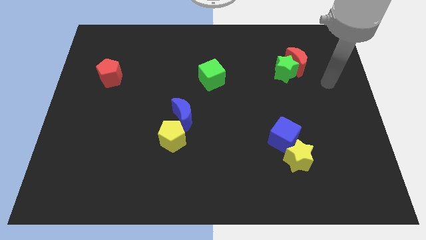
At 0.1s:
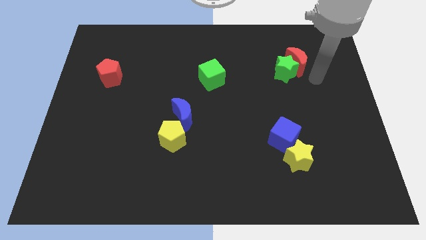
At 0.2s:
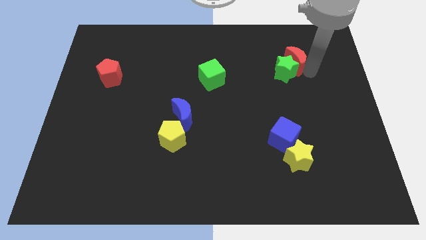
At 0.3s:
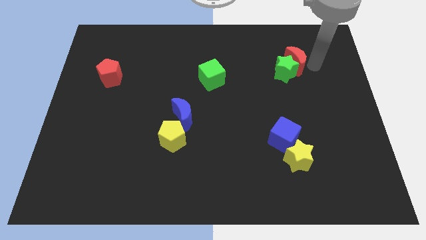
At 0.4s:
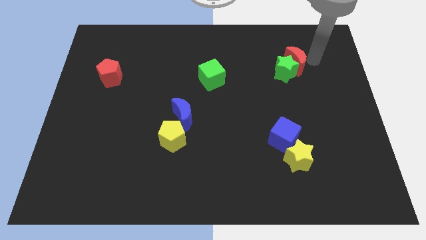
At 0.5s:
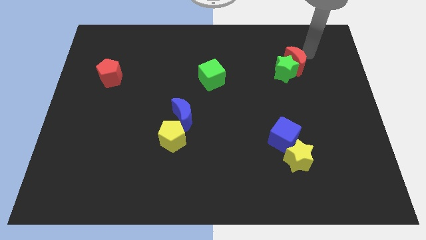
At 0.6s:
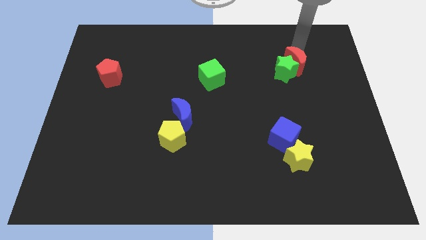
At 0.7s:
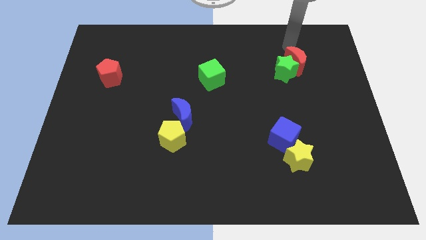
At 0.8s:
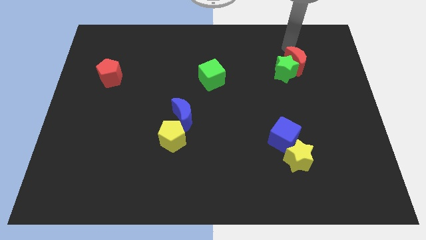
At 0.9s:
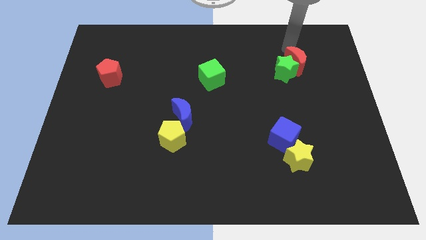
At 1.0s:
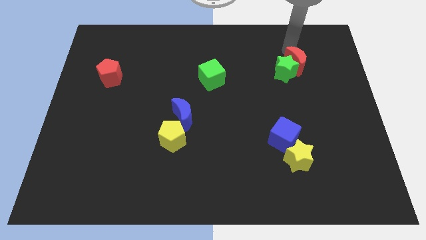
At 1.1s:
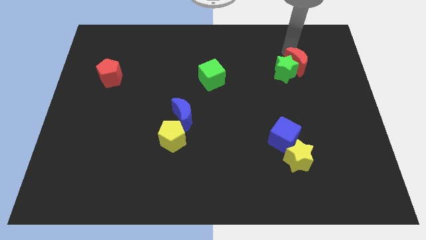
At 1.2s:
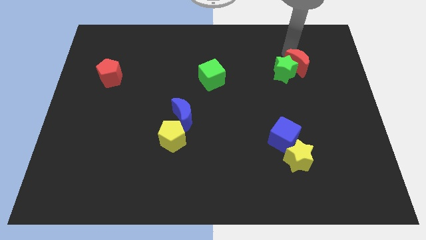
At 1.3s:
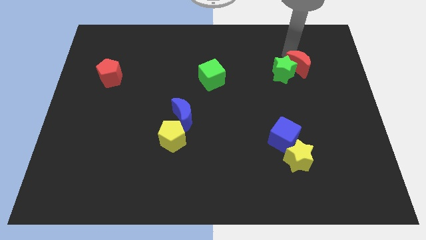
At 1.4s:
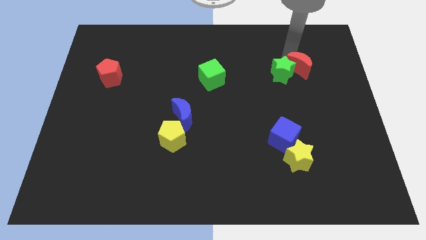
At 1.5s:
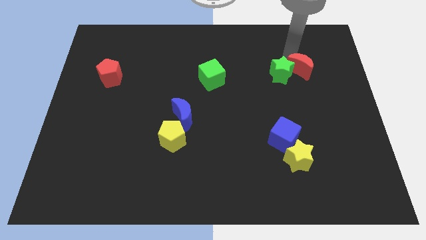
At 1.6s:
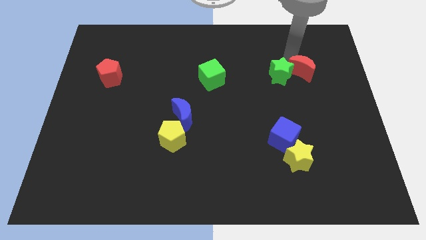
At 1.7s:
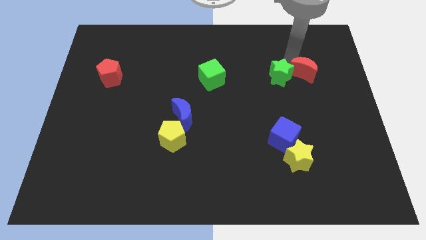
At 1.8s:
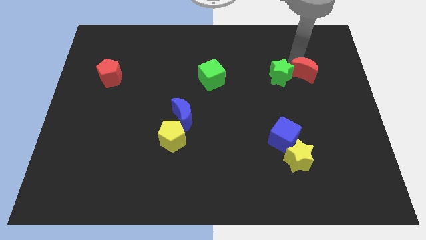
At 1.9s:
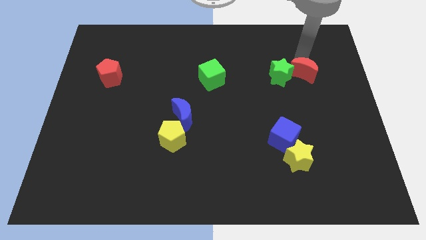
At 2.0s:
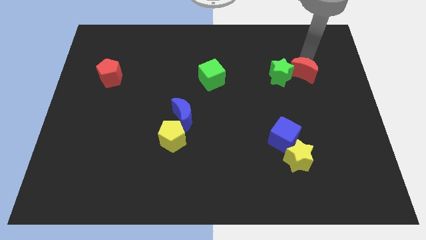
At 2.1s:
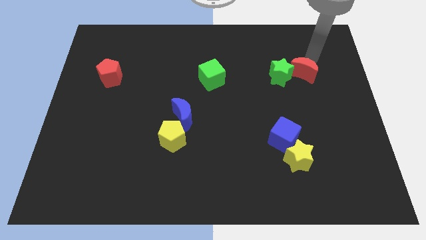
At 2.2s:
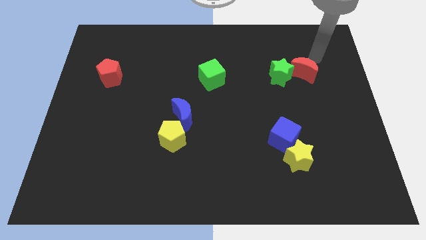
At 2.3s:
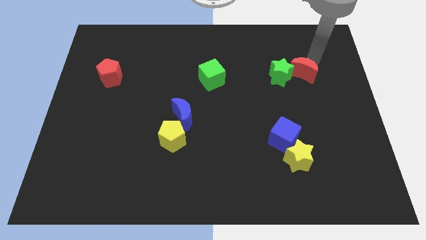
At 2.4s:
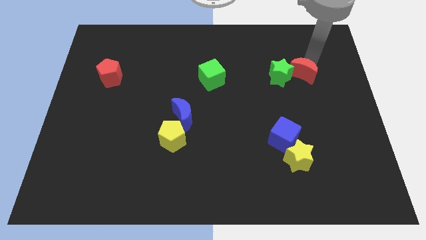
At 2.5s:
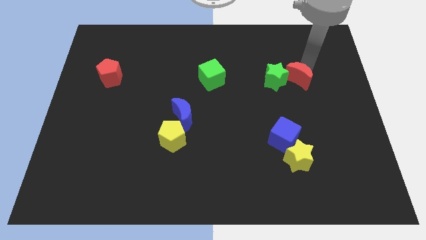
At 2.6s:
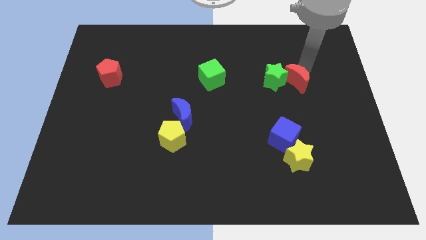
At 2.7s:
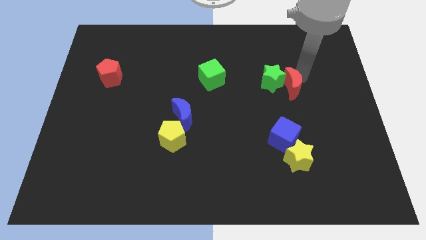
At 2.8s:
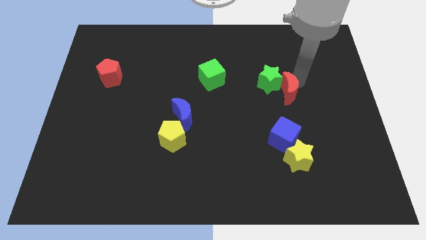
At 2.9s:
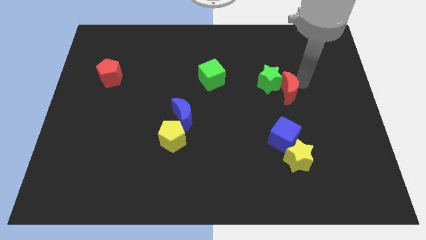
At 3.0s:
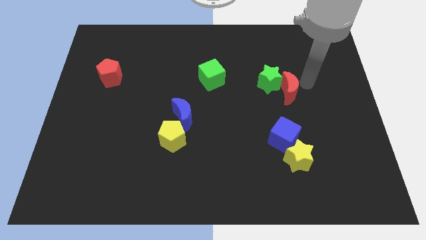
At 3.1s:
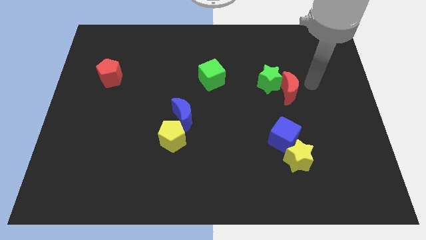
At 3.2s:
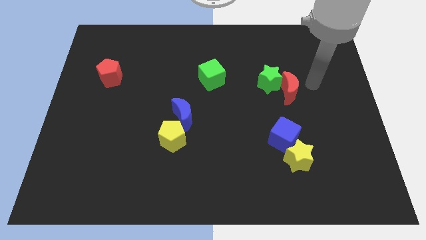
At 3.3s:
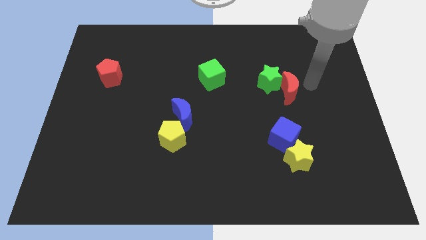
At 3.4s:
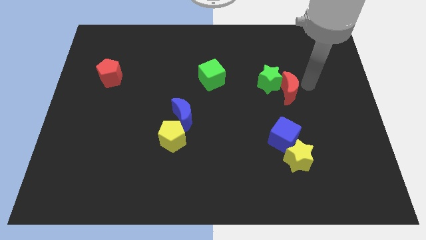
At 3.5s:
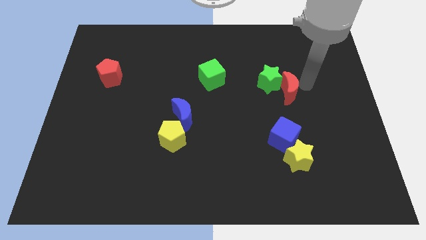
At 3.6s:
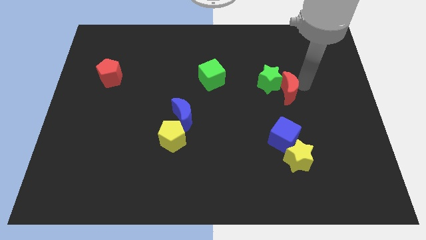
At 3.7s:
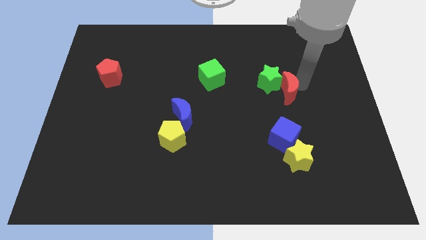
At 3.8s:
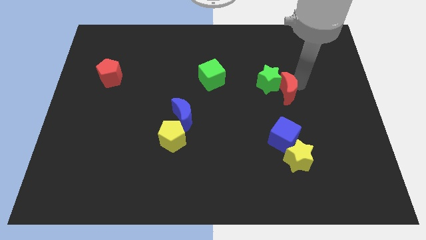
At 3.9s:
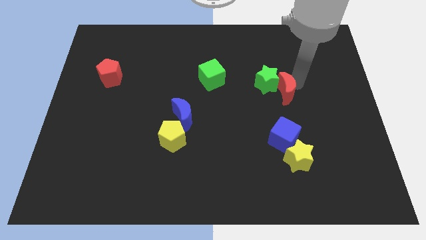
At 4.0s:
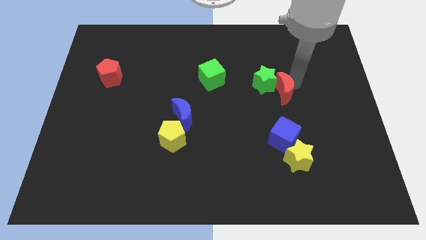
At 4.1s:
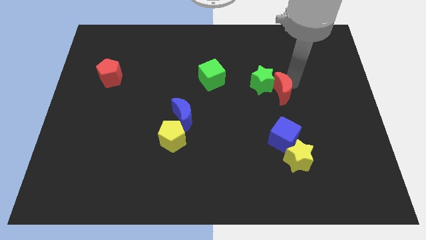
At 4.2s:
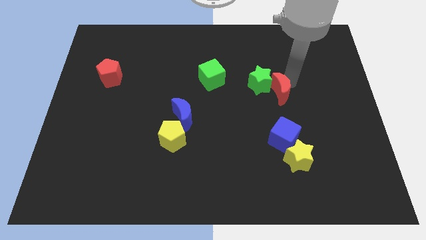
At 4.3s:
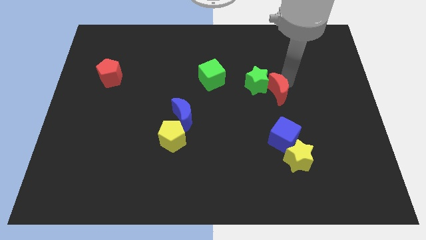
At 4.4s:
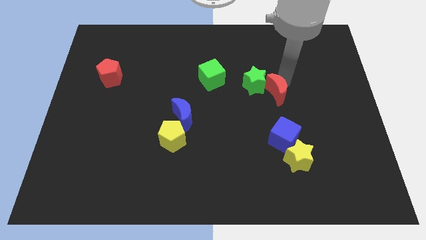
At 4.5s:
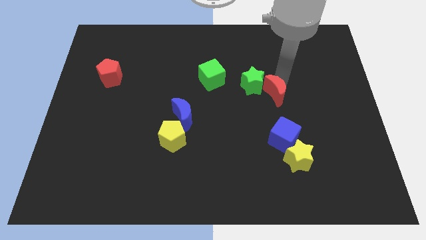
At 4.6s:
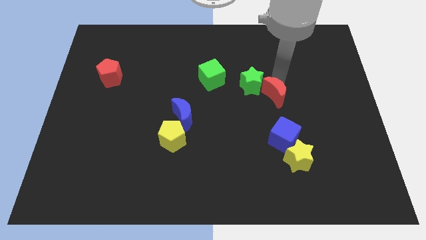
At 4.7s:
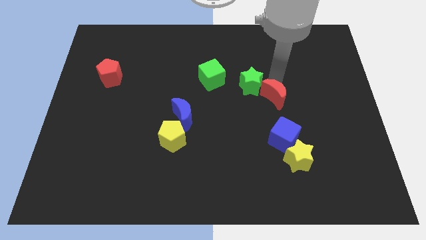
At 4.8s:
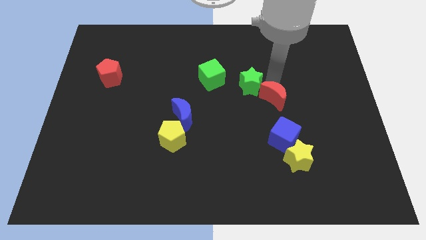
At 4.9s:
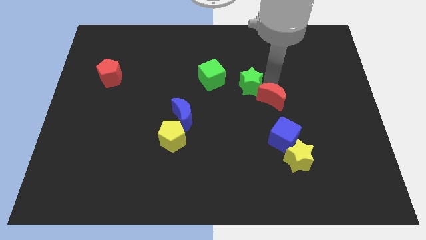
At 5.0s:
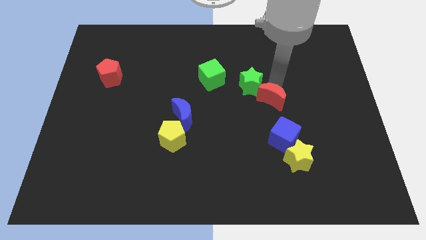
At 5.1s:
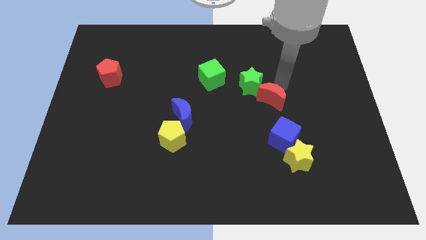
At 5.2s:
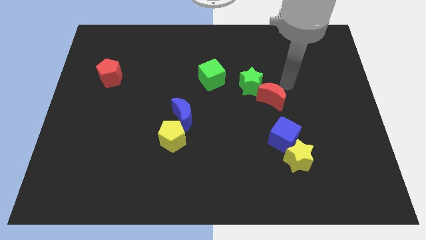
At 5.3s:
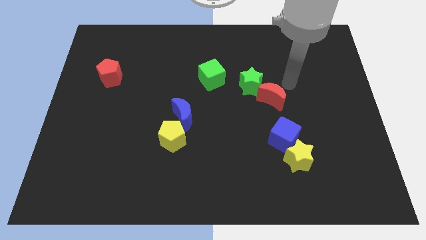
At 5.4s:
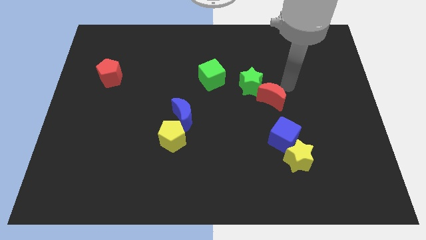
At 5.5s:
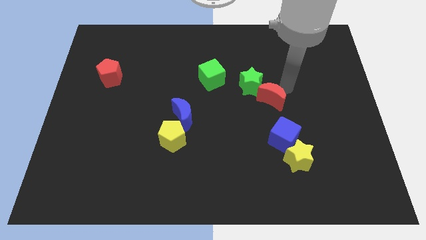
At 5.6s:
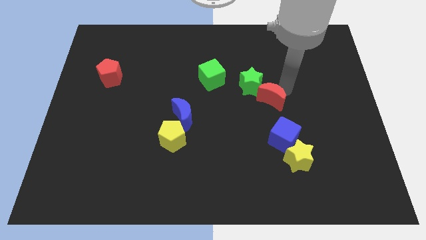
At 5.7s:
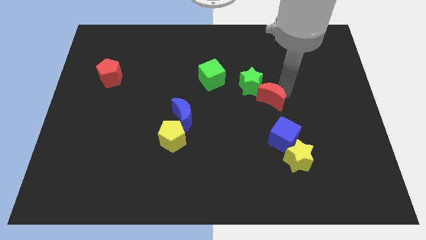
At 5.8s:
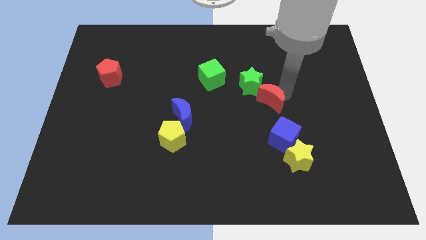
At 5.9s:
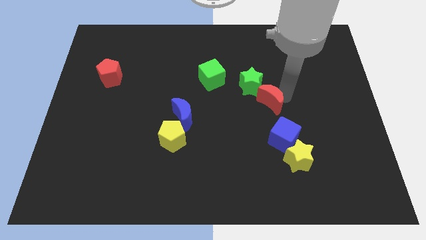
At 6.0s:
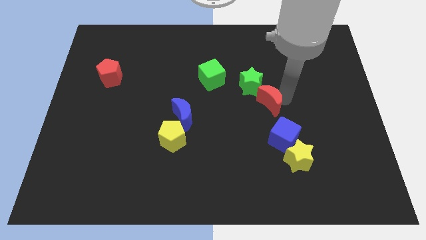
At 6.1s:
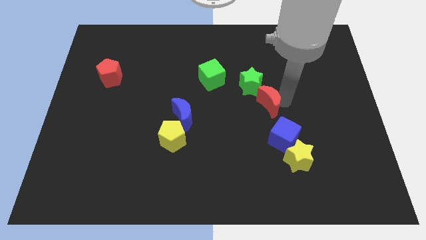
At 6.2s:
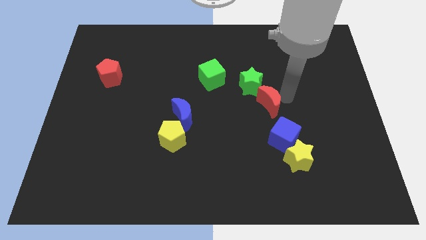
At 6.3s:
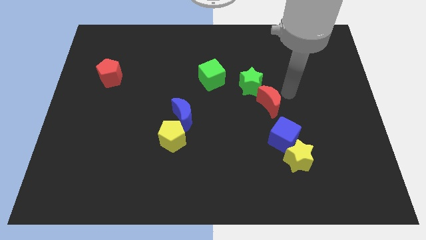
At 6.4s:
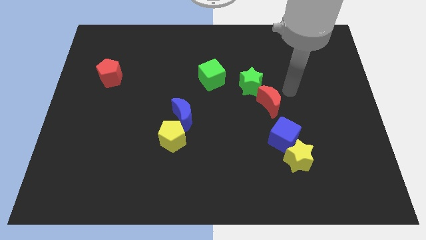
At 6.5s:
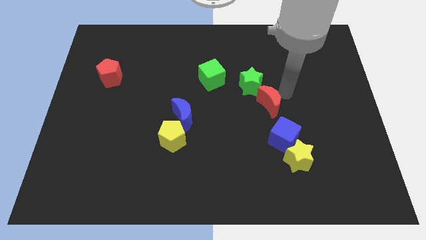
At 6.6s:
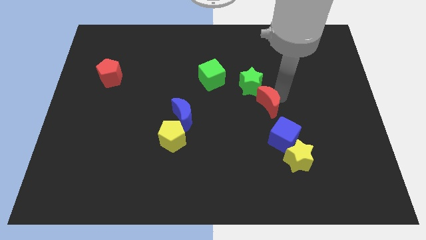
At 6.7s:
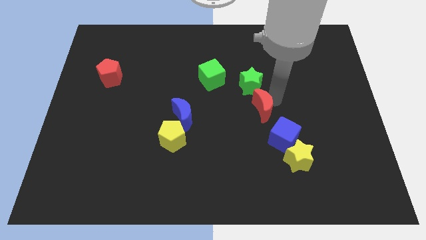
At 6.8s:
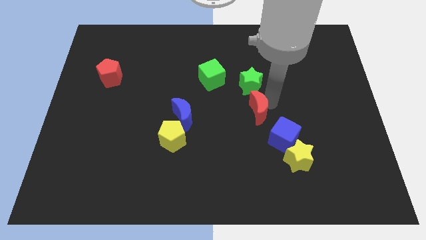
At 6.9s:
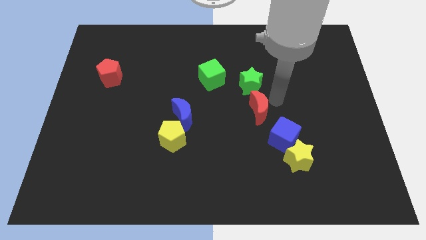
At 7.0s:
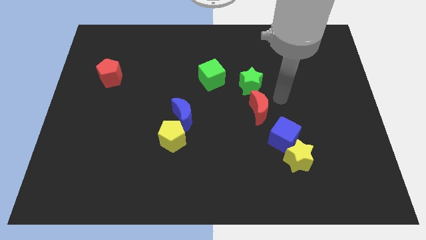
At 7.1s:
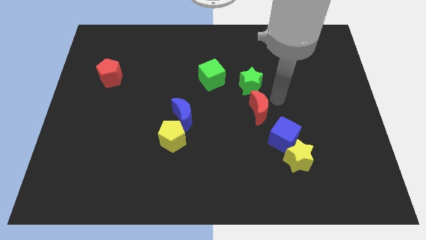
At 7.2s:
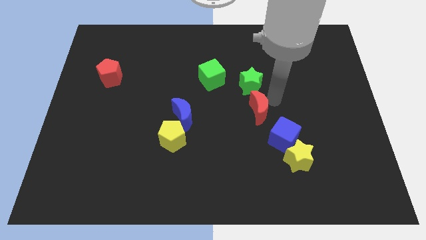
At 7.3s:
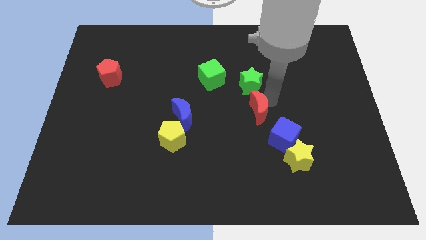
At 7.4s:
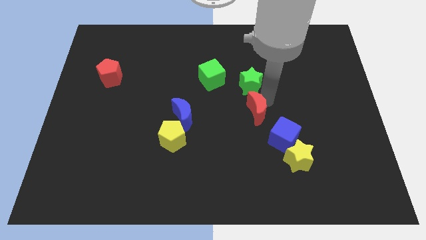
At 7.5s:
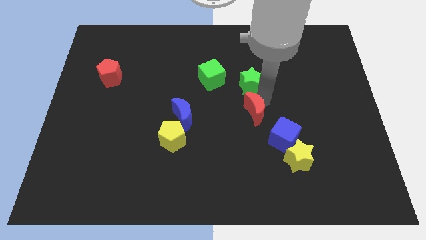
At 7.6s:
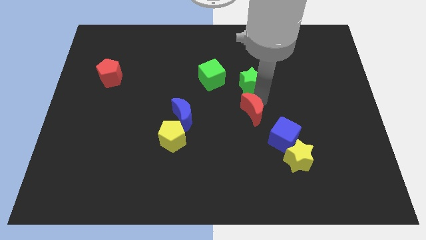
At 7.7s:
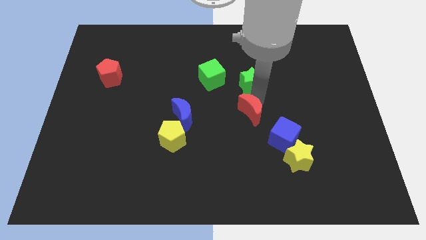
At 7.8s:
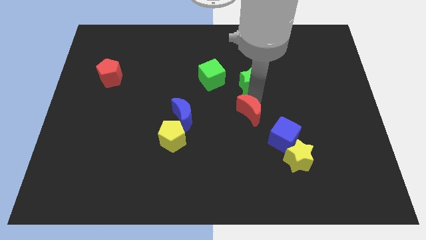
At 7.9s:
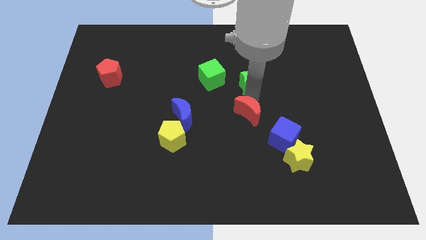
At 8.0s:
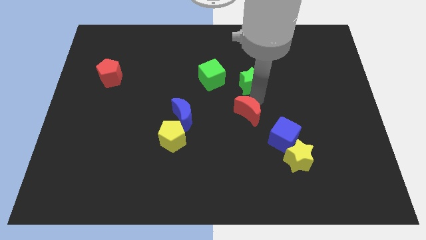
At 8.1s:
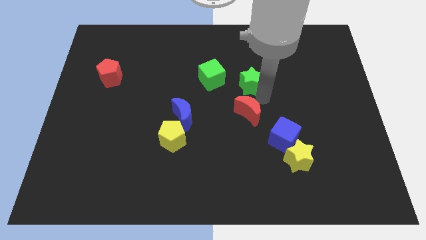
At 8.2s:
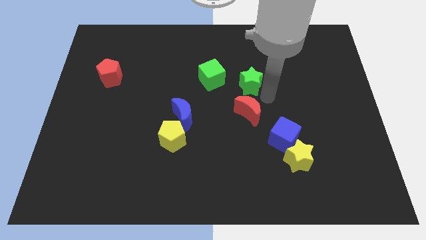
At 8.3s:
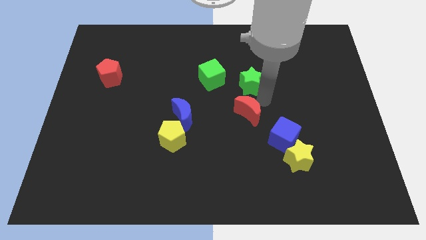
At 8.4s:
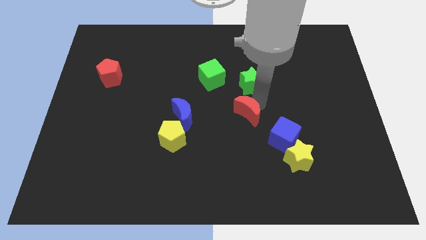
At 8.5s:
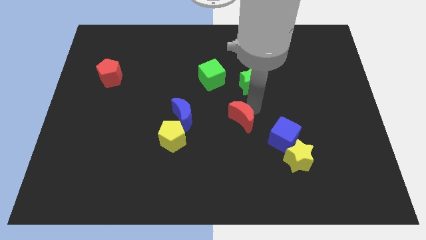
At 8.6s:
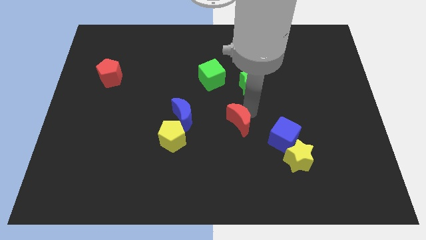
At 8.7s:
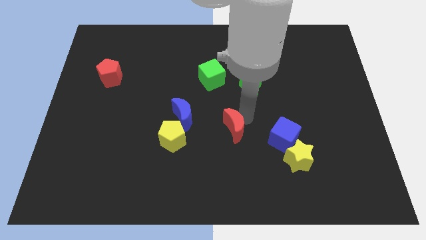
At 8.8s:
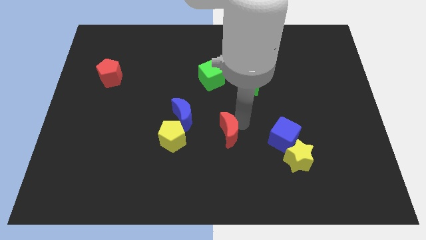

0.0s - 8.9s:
move the red moon to the bottom right of the blue moon
